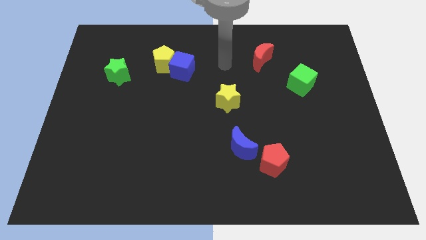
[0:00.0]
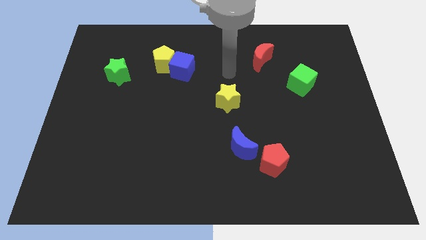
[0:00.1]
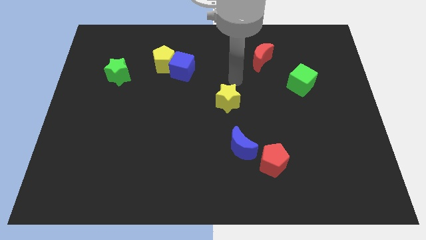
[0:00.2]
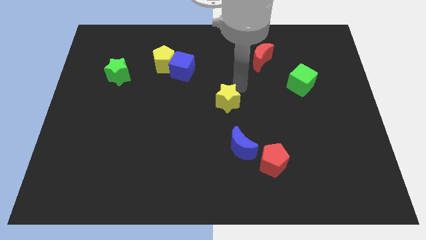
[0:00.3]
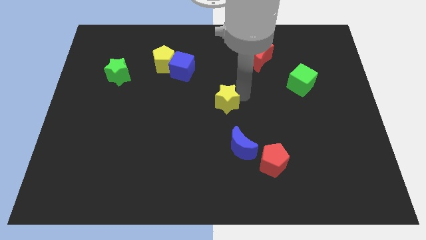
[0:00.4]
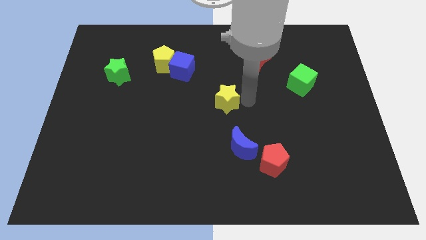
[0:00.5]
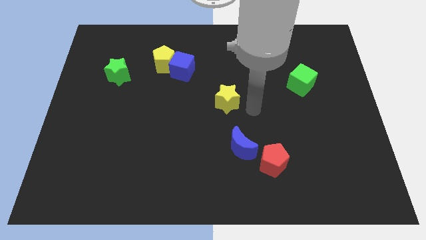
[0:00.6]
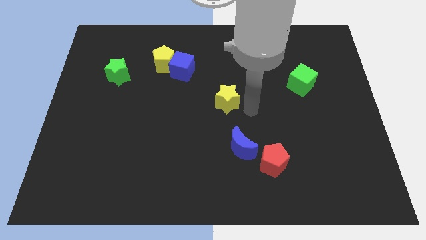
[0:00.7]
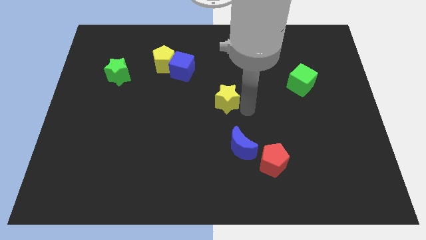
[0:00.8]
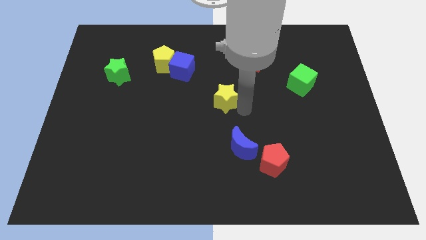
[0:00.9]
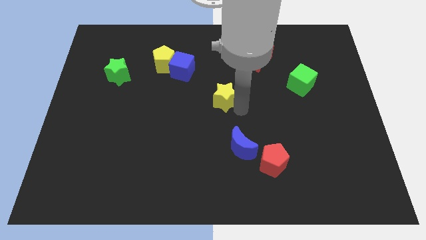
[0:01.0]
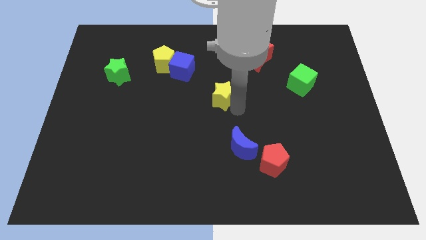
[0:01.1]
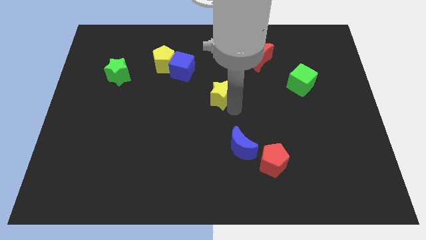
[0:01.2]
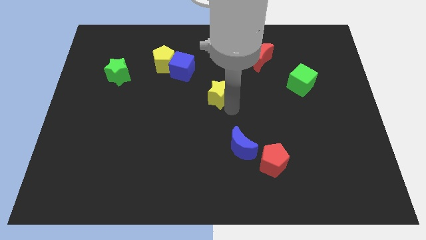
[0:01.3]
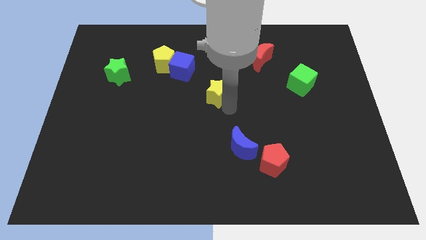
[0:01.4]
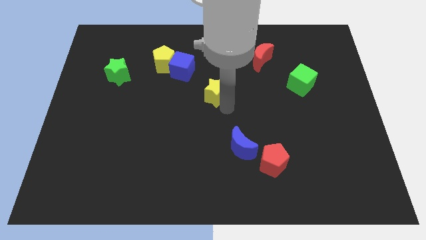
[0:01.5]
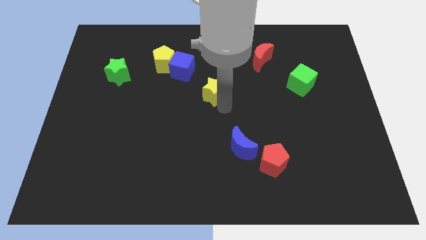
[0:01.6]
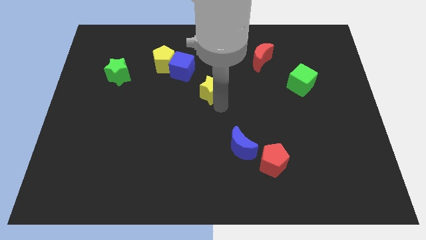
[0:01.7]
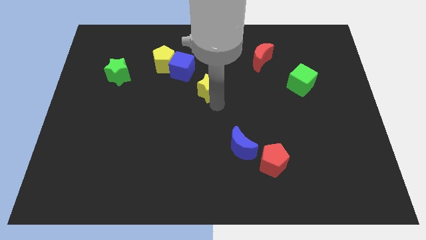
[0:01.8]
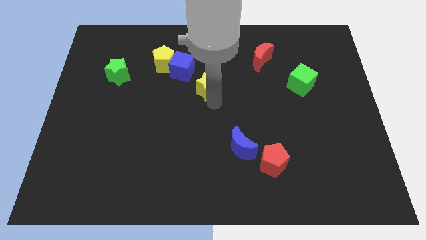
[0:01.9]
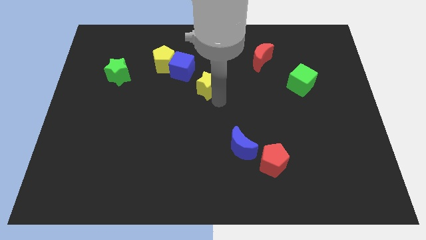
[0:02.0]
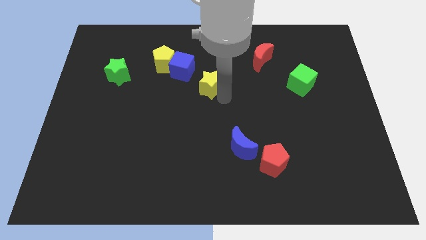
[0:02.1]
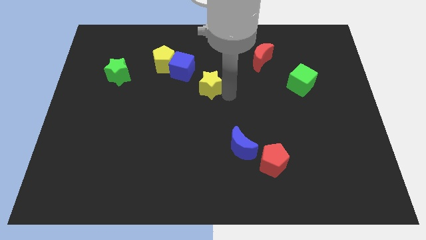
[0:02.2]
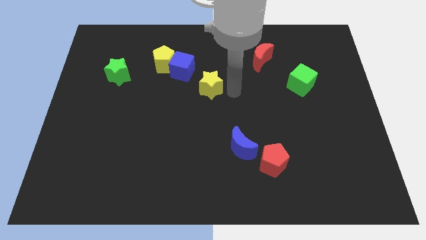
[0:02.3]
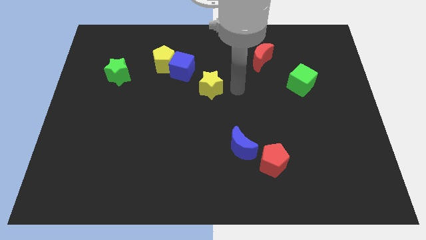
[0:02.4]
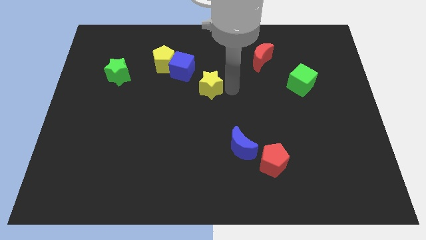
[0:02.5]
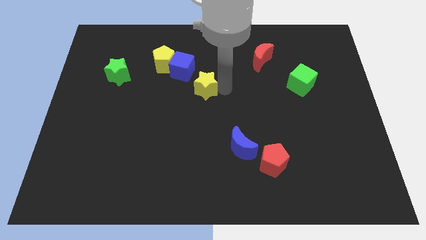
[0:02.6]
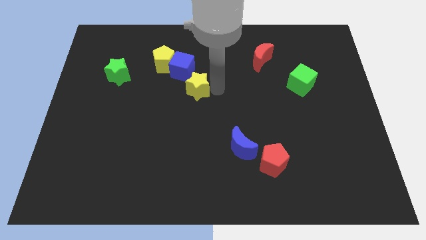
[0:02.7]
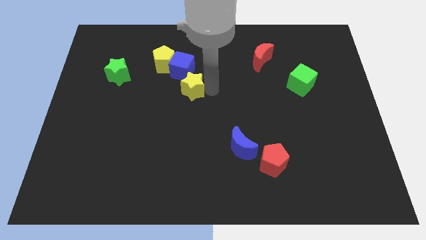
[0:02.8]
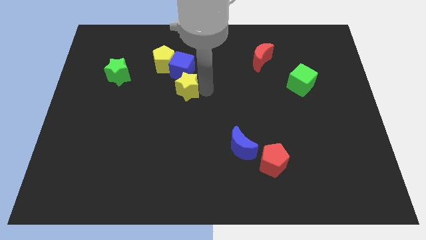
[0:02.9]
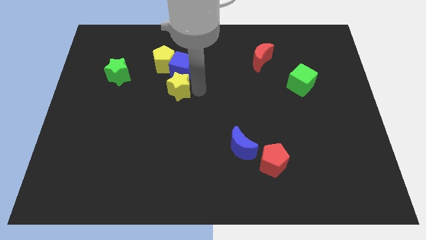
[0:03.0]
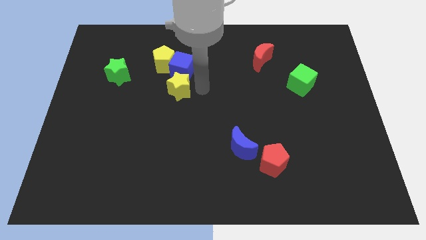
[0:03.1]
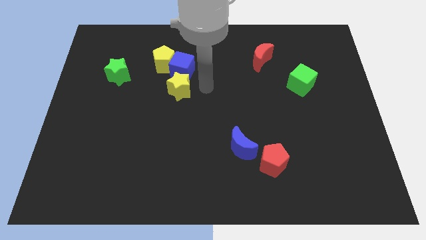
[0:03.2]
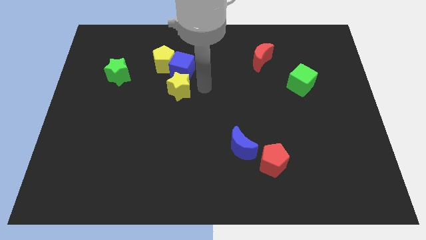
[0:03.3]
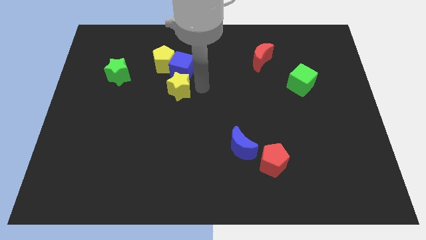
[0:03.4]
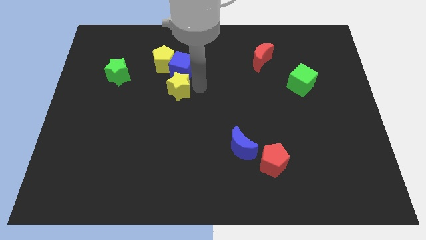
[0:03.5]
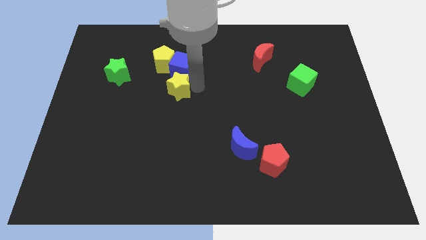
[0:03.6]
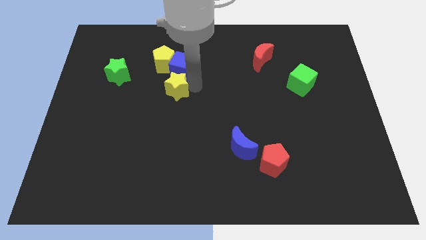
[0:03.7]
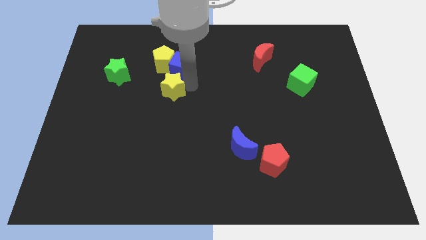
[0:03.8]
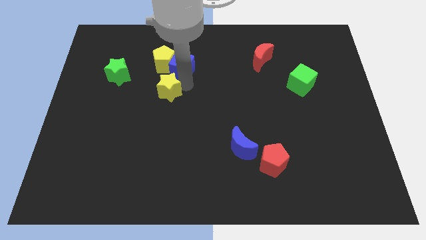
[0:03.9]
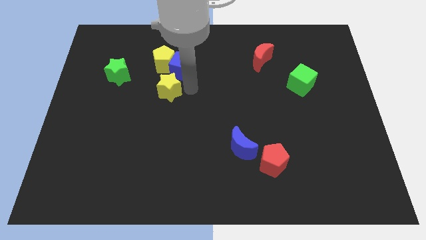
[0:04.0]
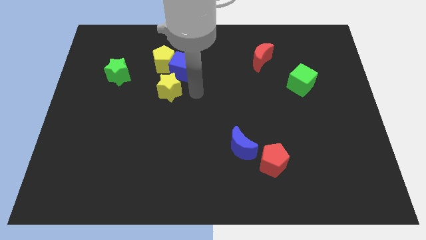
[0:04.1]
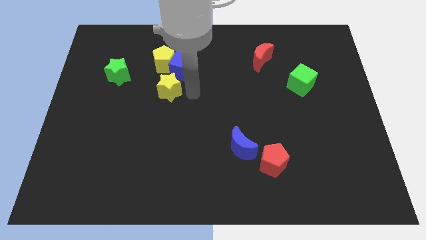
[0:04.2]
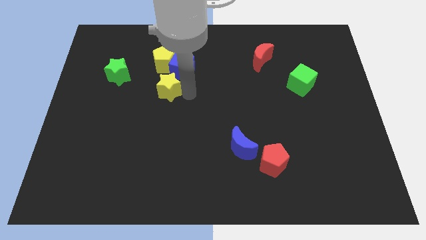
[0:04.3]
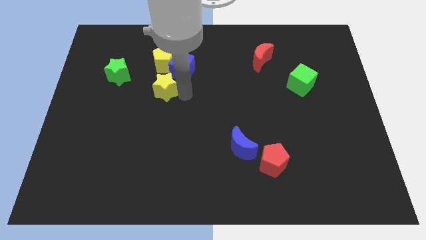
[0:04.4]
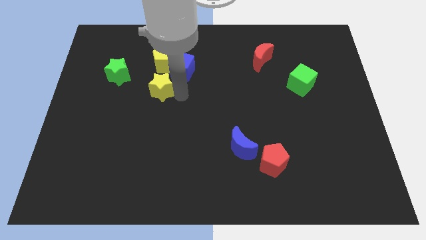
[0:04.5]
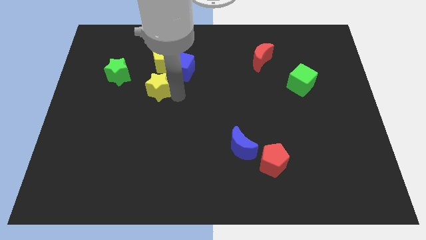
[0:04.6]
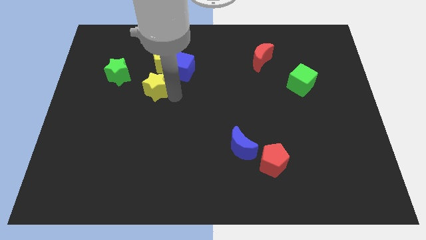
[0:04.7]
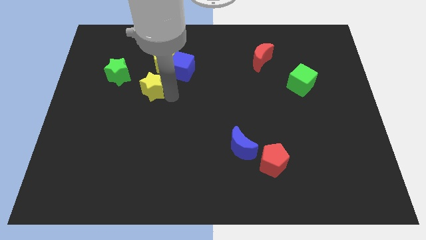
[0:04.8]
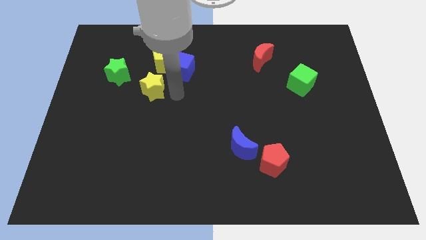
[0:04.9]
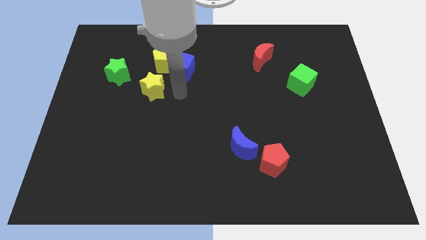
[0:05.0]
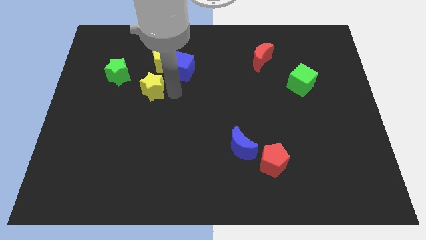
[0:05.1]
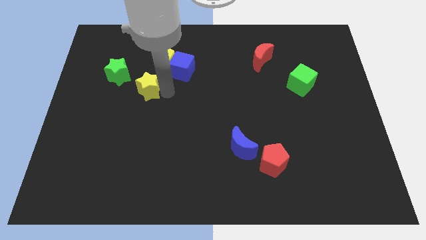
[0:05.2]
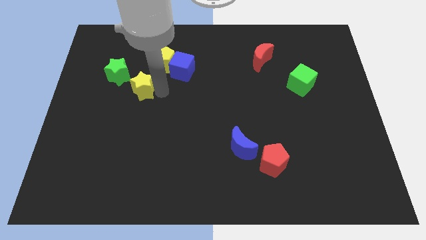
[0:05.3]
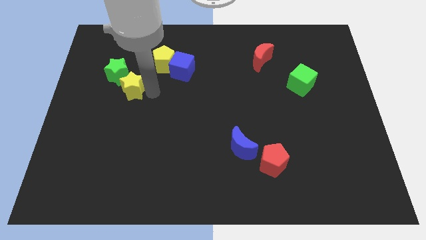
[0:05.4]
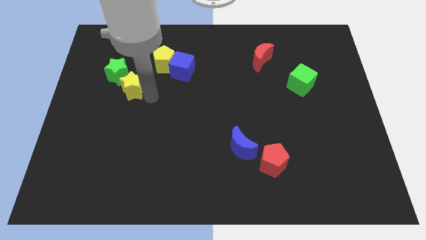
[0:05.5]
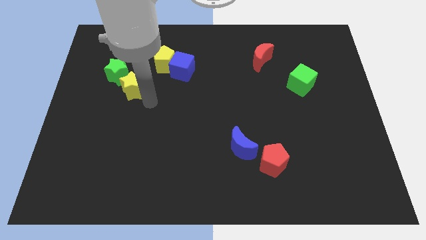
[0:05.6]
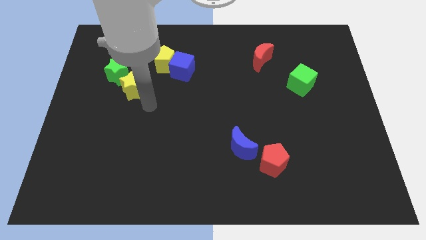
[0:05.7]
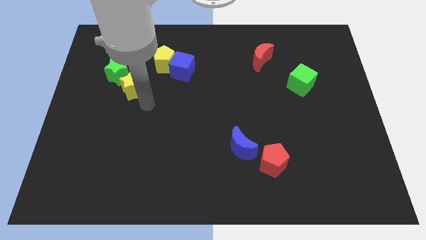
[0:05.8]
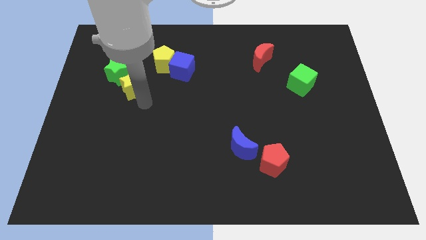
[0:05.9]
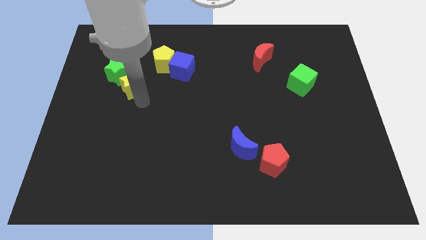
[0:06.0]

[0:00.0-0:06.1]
put the yellow star close to the green star

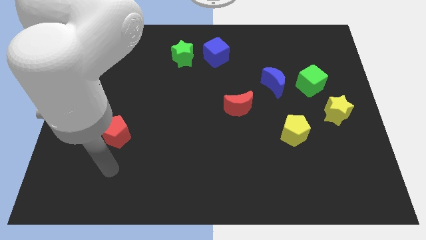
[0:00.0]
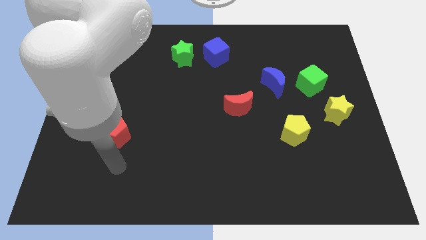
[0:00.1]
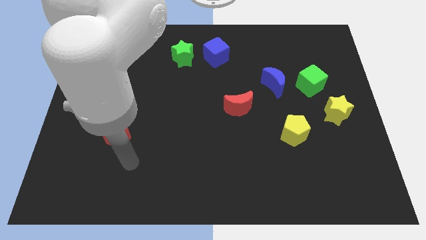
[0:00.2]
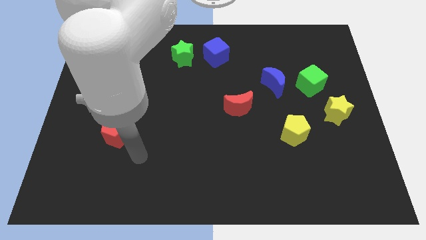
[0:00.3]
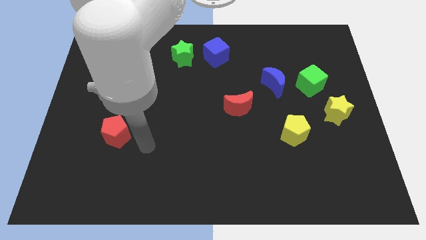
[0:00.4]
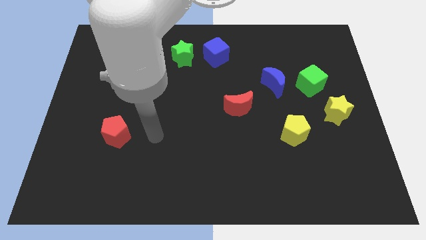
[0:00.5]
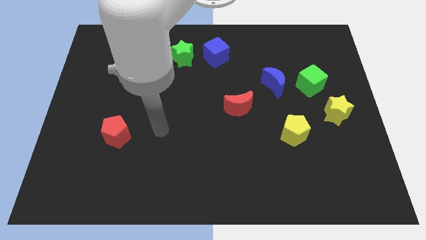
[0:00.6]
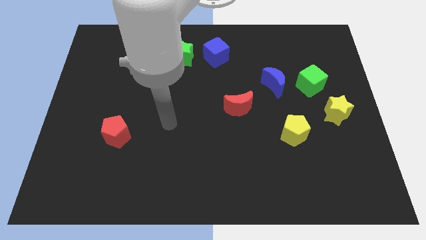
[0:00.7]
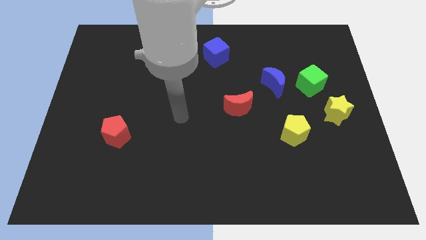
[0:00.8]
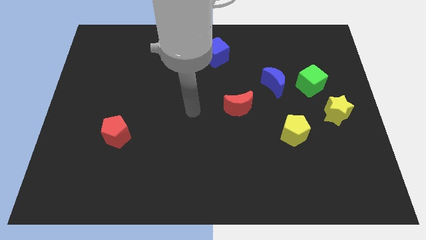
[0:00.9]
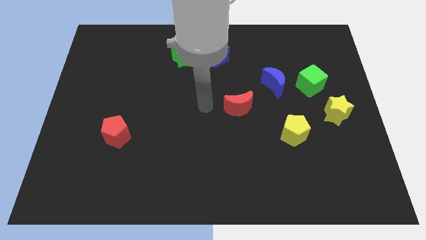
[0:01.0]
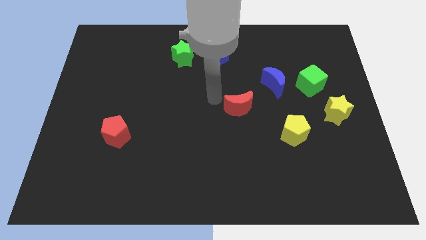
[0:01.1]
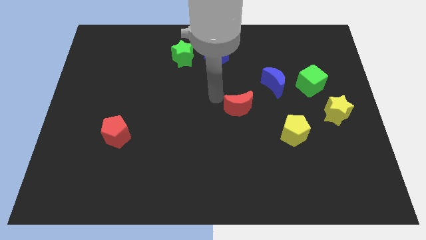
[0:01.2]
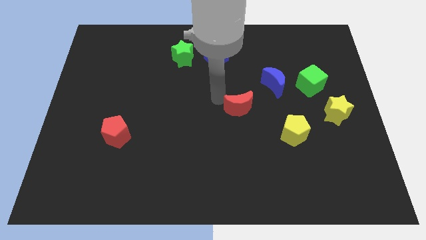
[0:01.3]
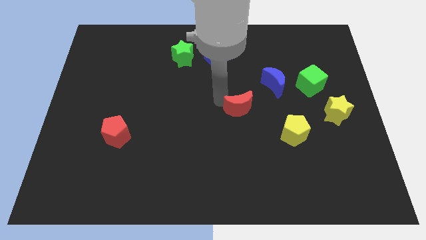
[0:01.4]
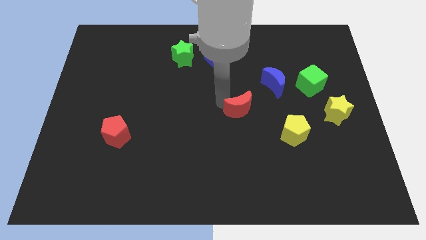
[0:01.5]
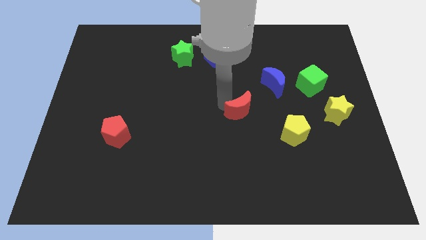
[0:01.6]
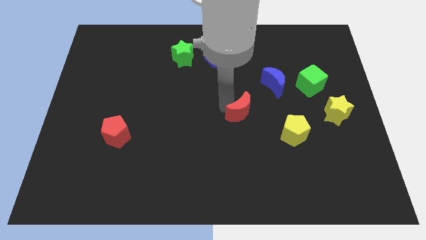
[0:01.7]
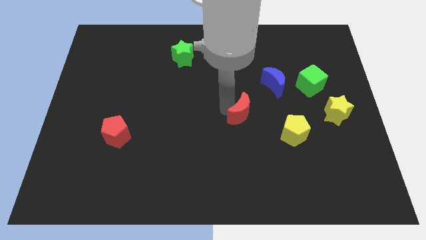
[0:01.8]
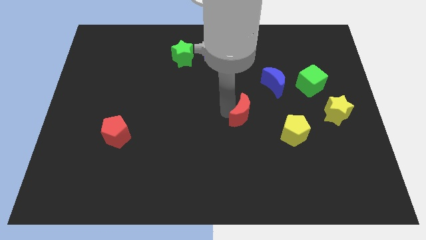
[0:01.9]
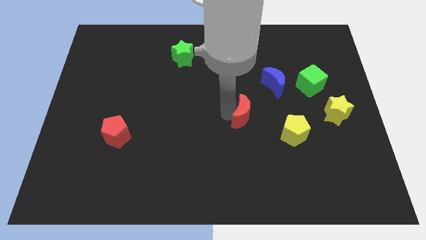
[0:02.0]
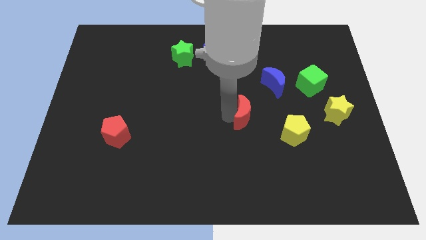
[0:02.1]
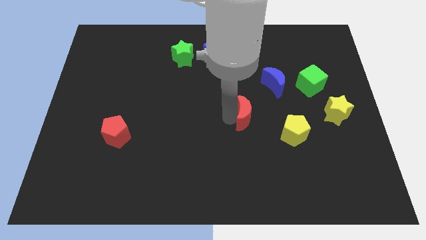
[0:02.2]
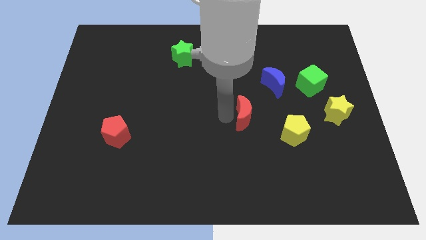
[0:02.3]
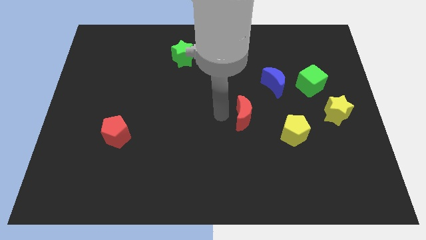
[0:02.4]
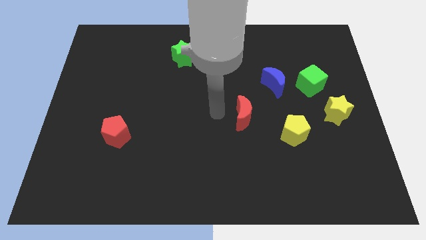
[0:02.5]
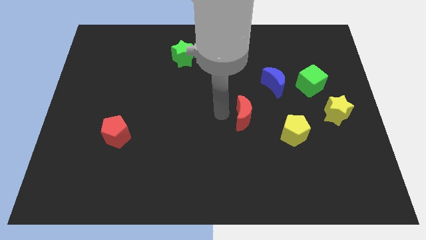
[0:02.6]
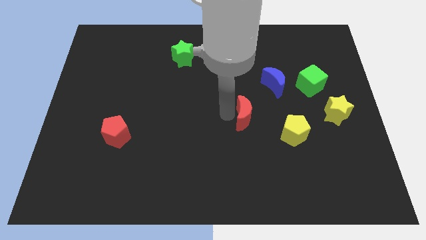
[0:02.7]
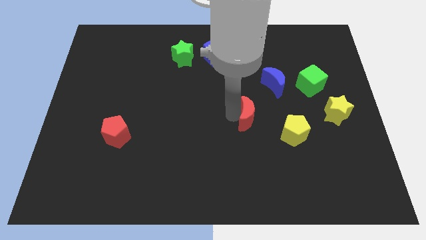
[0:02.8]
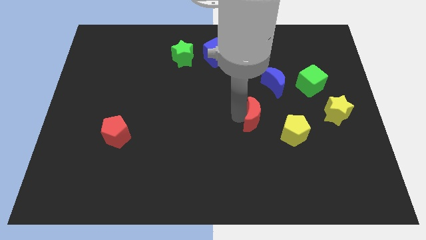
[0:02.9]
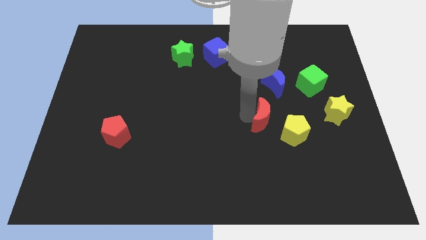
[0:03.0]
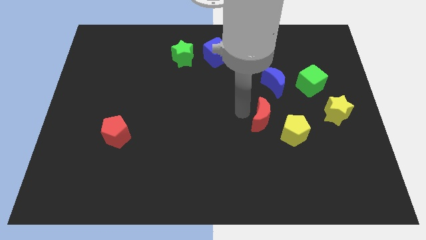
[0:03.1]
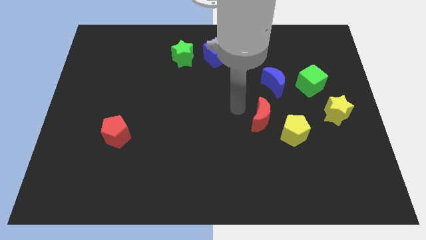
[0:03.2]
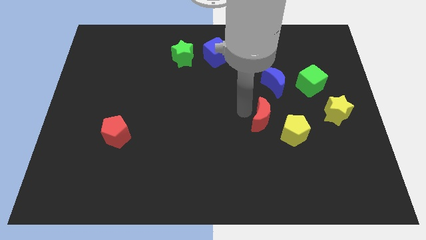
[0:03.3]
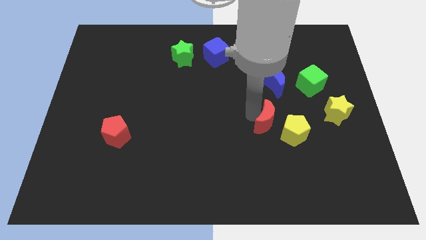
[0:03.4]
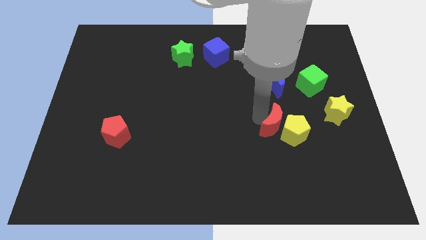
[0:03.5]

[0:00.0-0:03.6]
move the red moon close to the yellow pentagon
